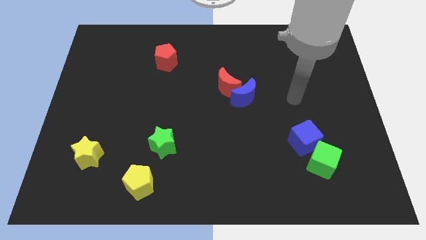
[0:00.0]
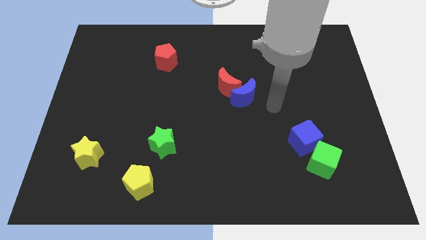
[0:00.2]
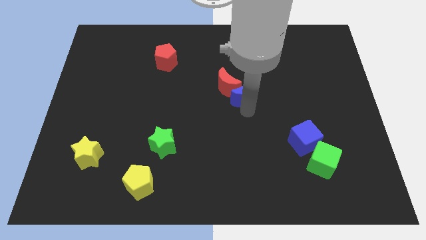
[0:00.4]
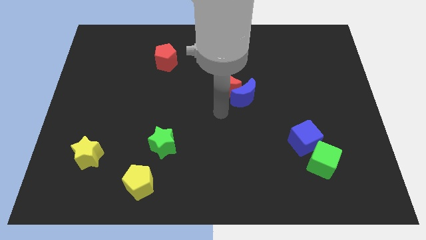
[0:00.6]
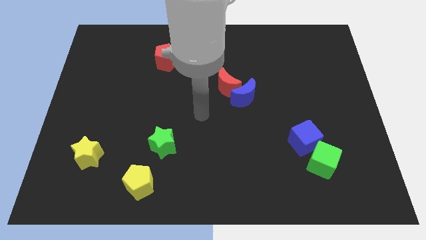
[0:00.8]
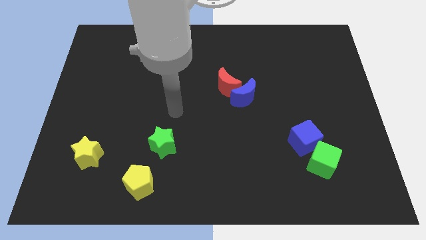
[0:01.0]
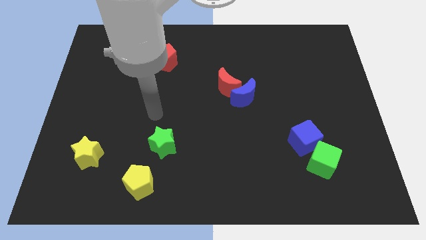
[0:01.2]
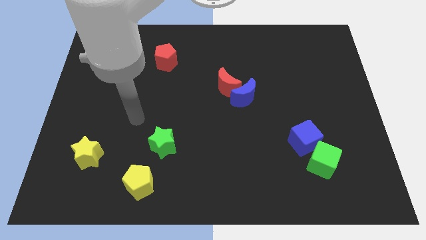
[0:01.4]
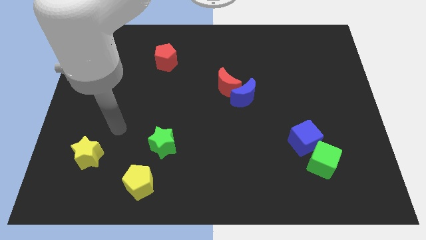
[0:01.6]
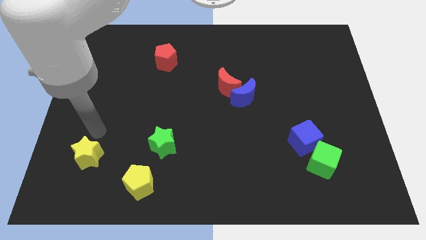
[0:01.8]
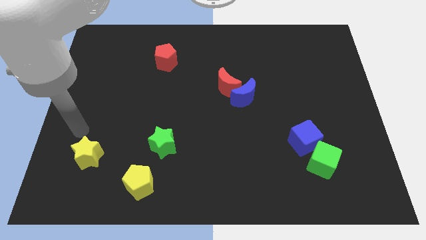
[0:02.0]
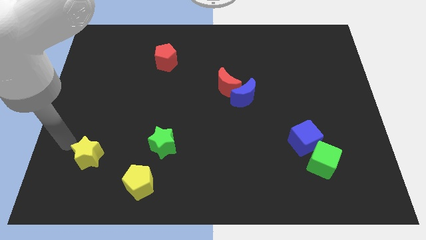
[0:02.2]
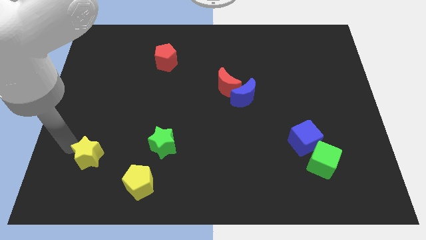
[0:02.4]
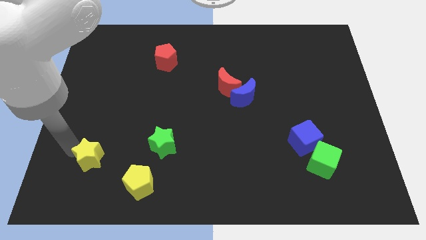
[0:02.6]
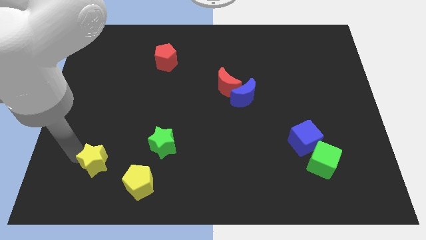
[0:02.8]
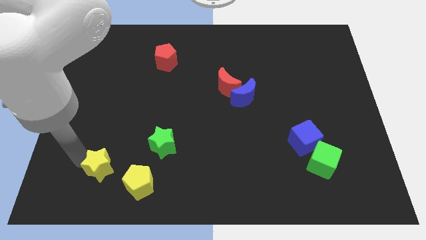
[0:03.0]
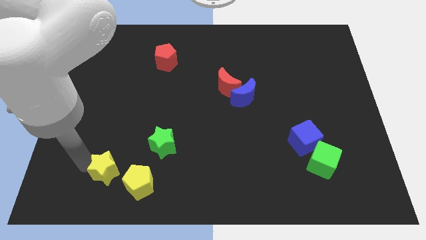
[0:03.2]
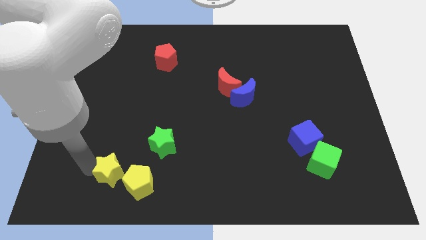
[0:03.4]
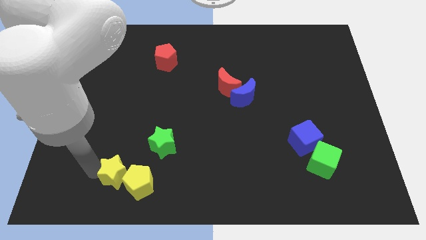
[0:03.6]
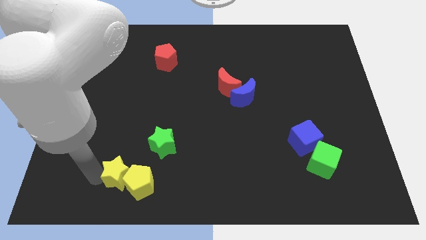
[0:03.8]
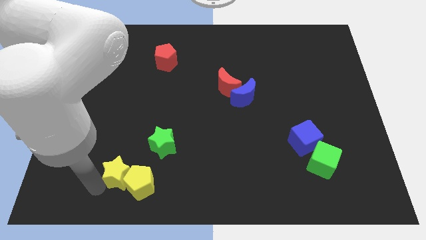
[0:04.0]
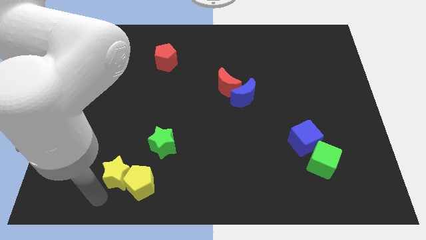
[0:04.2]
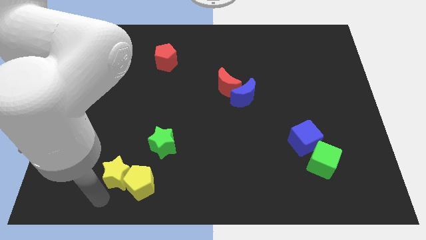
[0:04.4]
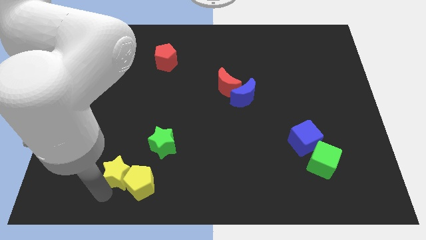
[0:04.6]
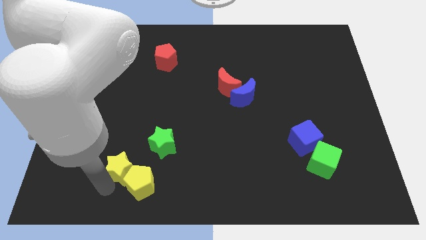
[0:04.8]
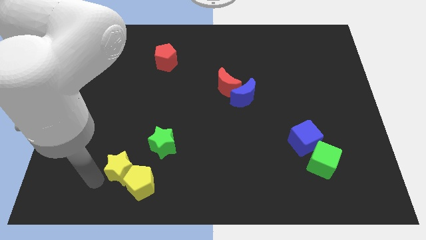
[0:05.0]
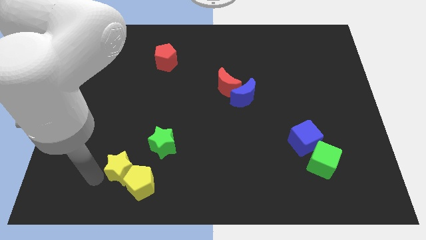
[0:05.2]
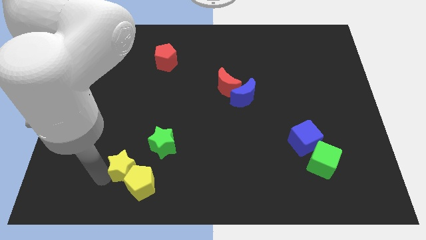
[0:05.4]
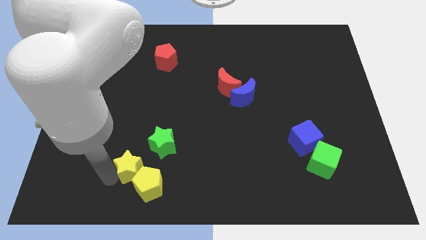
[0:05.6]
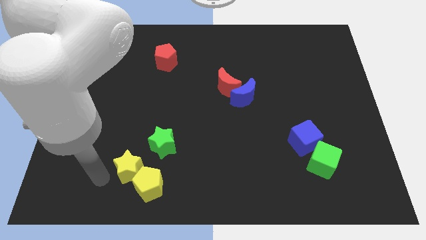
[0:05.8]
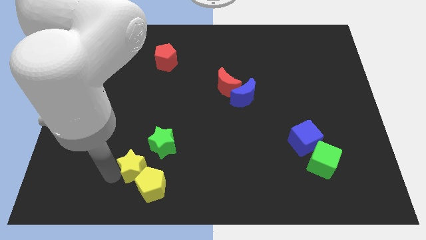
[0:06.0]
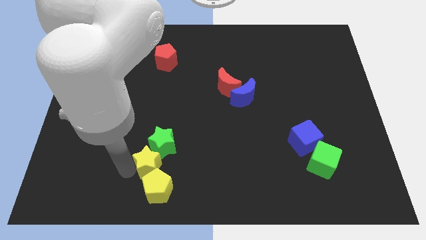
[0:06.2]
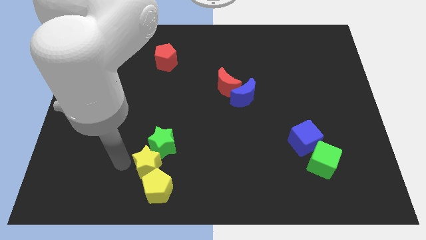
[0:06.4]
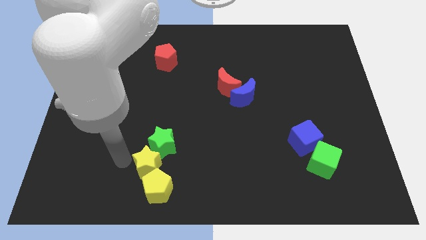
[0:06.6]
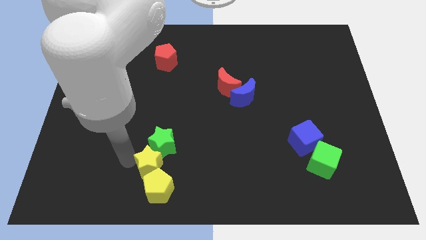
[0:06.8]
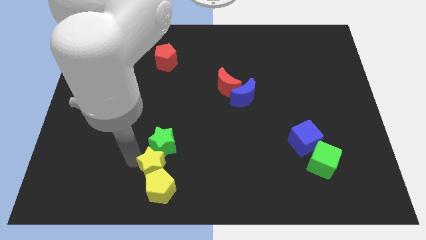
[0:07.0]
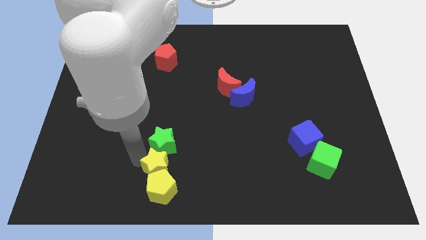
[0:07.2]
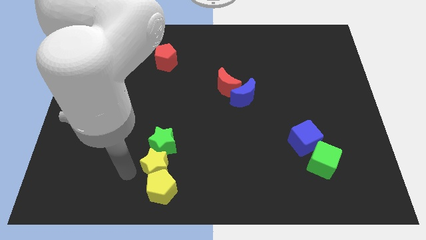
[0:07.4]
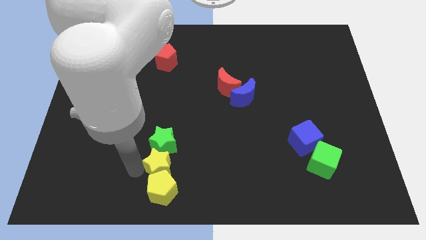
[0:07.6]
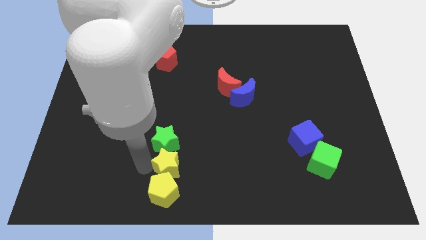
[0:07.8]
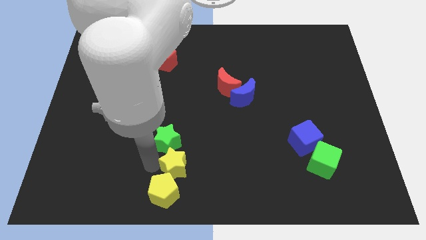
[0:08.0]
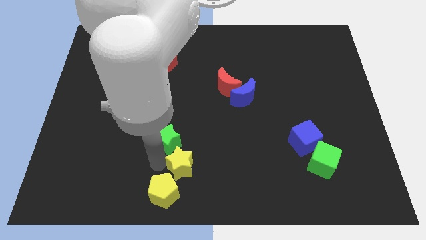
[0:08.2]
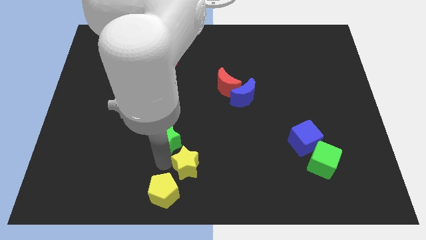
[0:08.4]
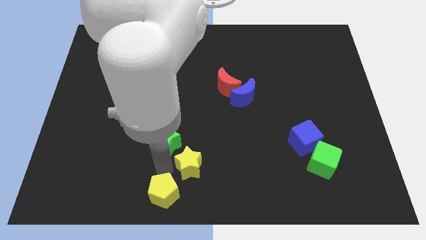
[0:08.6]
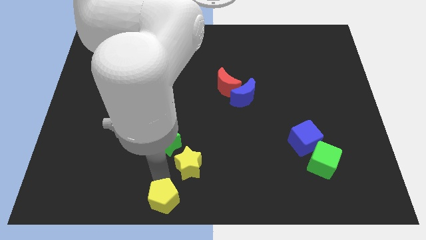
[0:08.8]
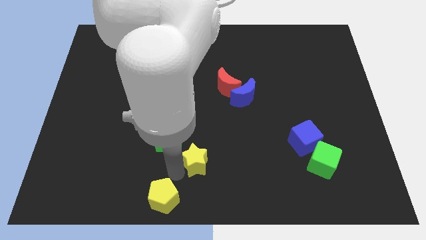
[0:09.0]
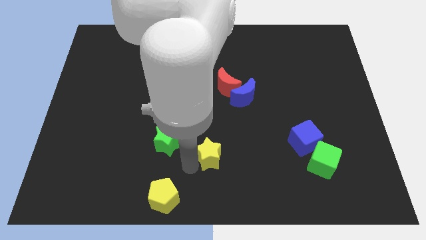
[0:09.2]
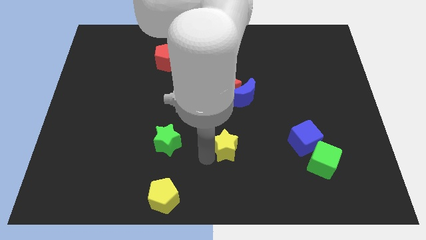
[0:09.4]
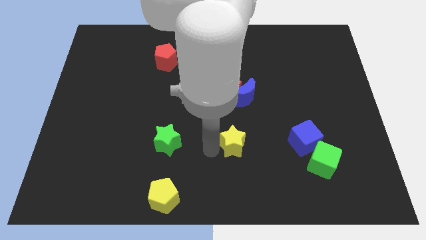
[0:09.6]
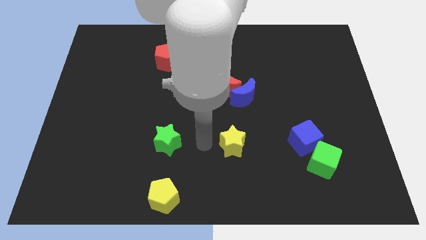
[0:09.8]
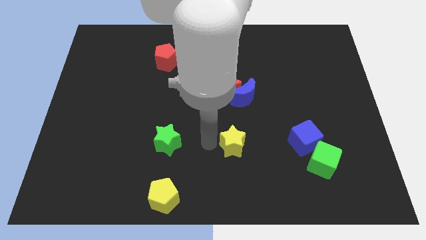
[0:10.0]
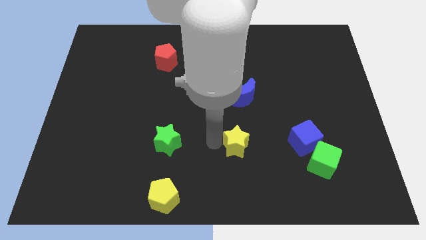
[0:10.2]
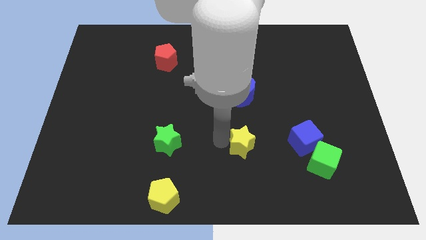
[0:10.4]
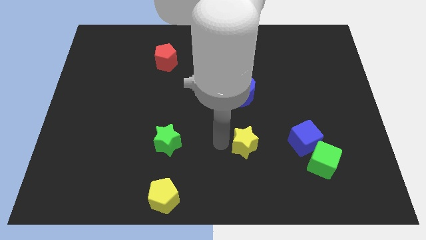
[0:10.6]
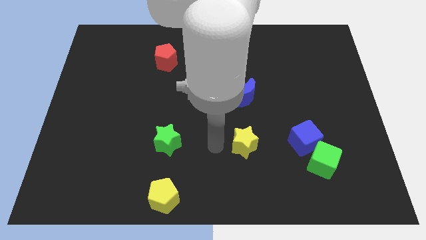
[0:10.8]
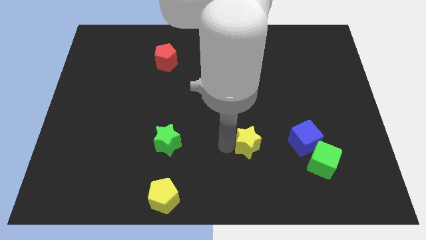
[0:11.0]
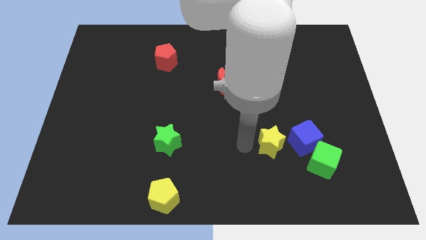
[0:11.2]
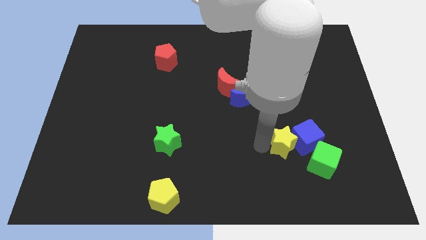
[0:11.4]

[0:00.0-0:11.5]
slide the yellow star next to the blue cube

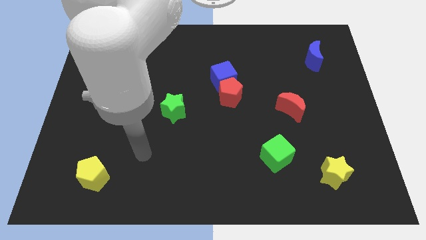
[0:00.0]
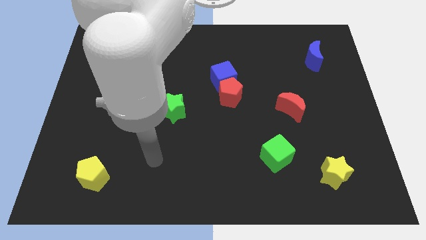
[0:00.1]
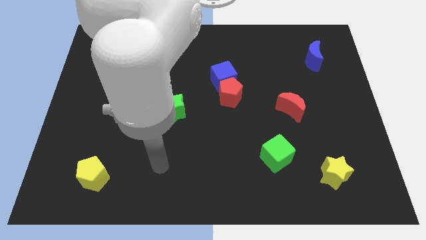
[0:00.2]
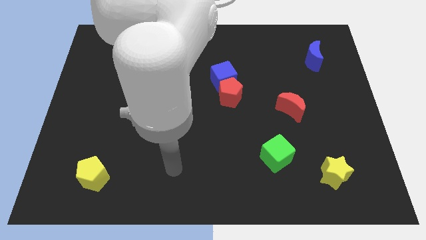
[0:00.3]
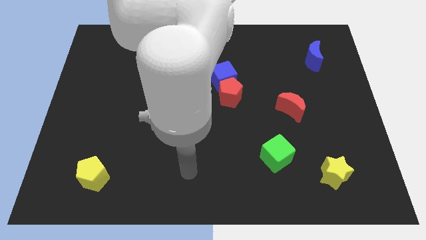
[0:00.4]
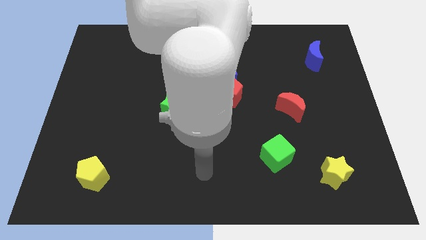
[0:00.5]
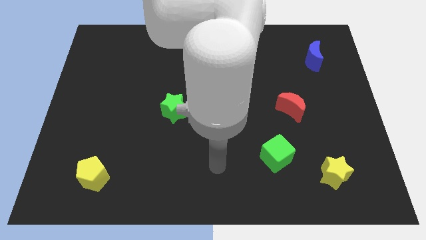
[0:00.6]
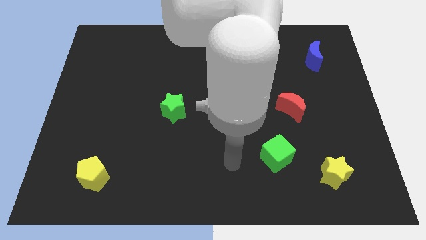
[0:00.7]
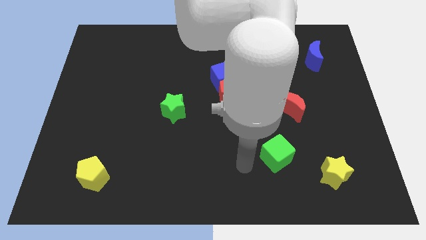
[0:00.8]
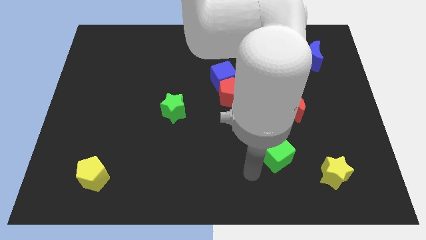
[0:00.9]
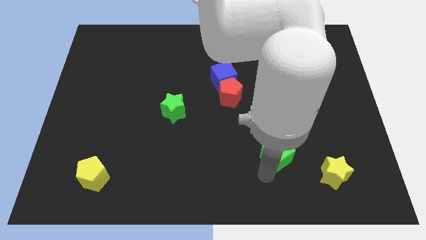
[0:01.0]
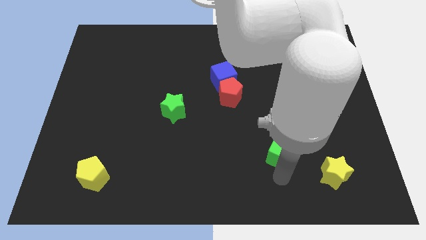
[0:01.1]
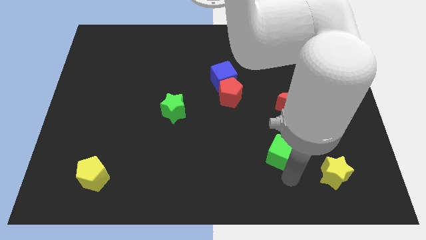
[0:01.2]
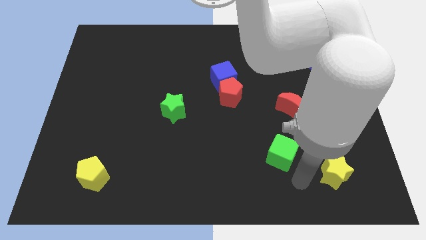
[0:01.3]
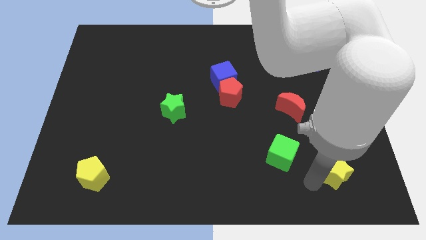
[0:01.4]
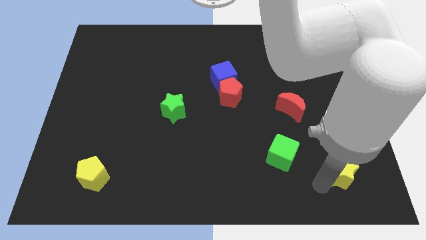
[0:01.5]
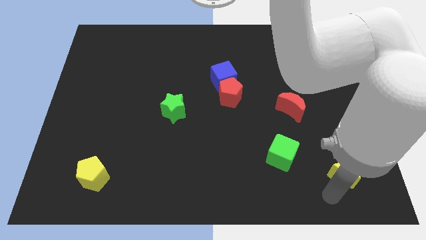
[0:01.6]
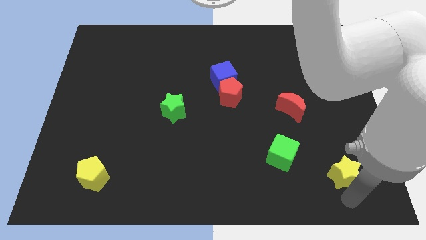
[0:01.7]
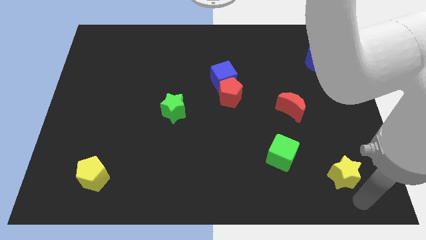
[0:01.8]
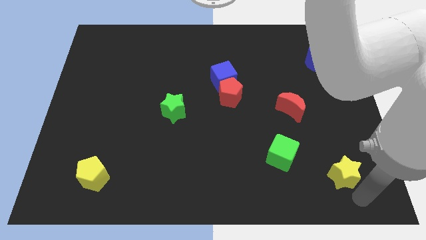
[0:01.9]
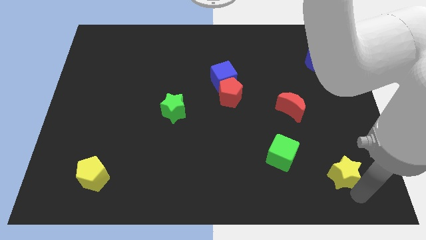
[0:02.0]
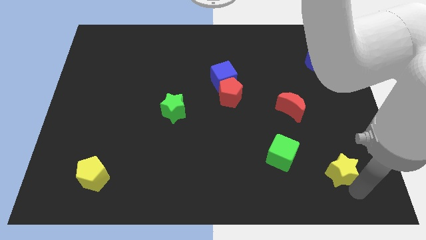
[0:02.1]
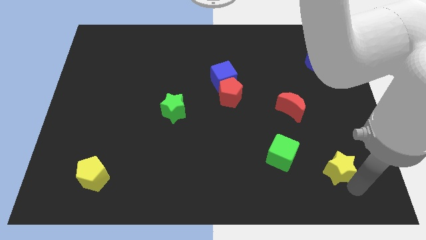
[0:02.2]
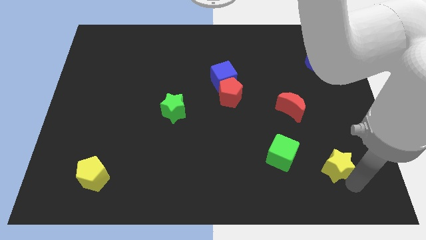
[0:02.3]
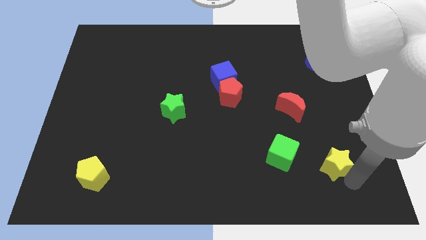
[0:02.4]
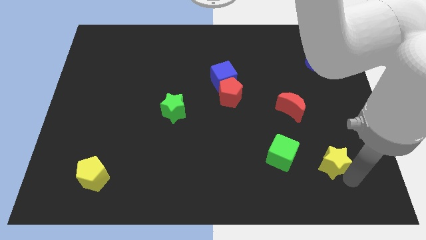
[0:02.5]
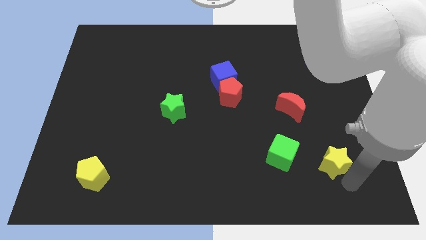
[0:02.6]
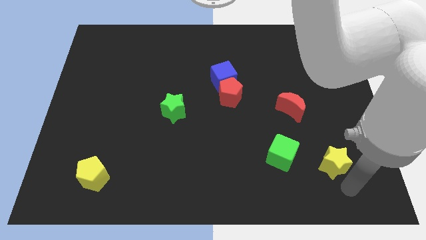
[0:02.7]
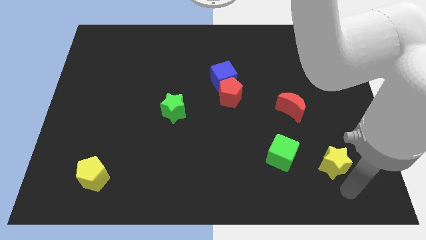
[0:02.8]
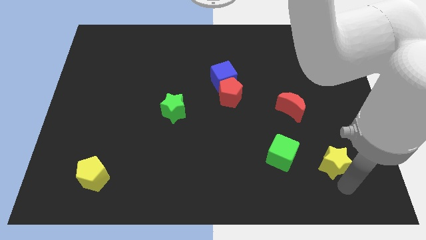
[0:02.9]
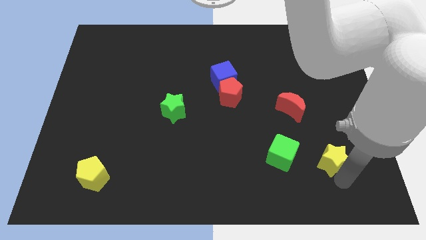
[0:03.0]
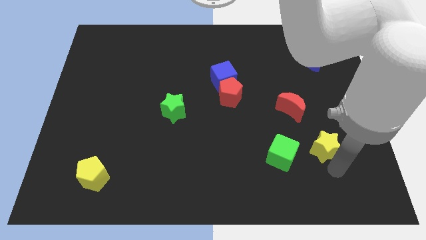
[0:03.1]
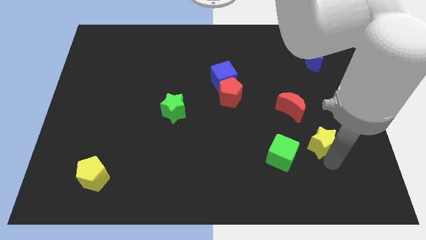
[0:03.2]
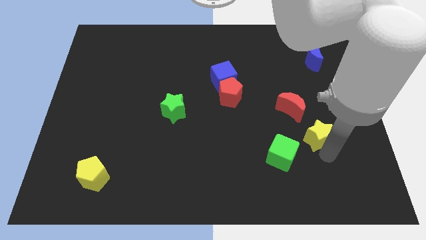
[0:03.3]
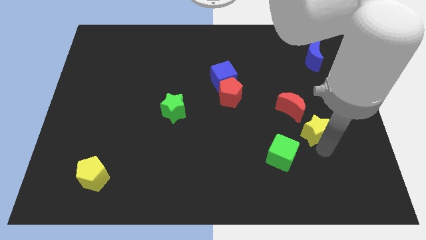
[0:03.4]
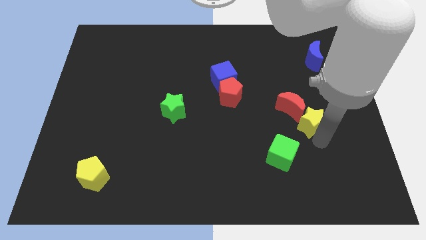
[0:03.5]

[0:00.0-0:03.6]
put the yellow star to the red moon
